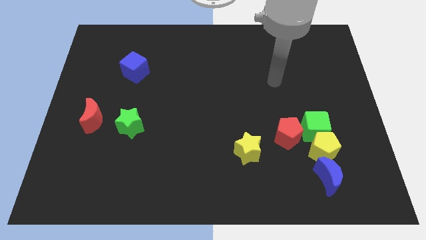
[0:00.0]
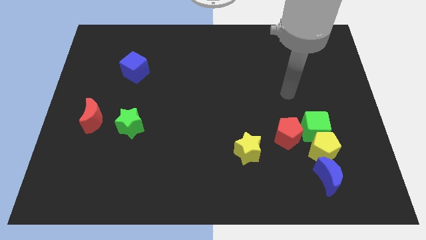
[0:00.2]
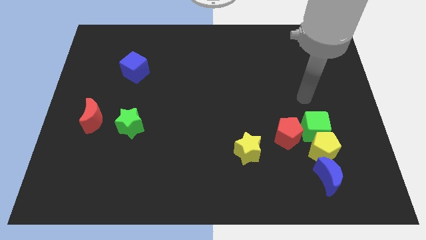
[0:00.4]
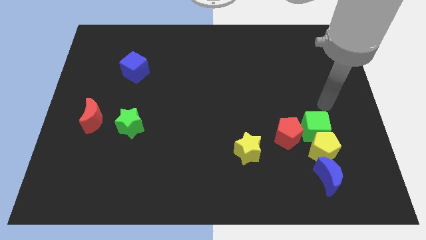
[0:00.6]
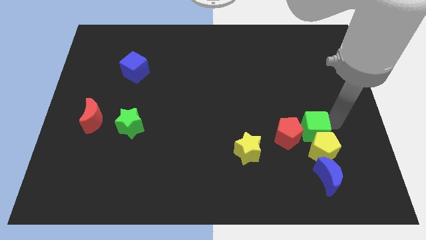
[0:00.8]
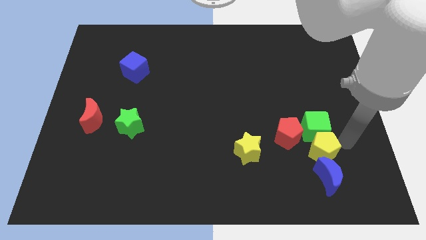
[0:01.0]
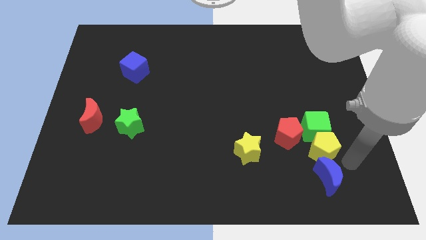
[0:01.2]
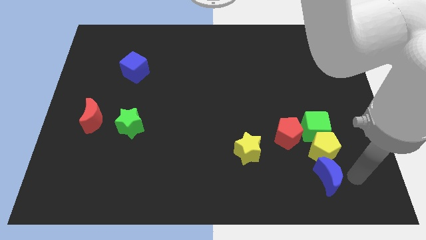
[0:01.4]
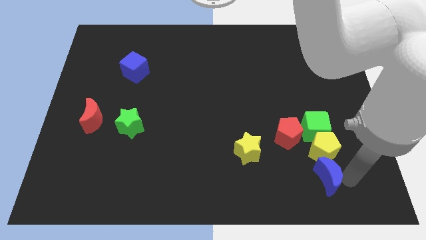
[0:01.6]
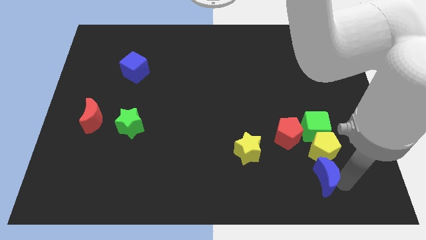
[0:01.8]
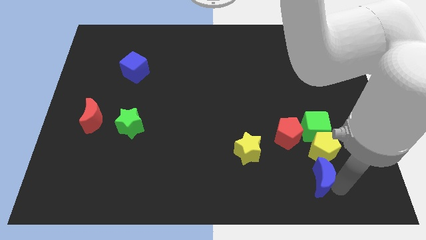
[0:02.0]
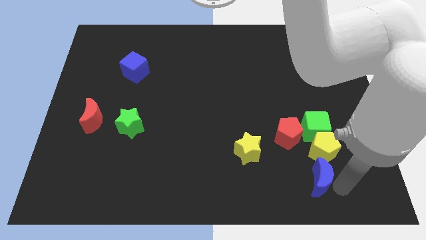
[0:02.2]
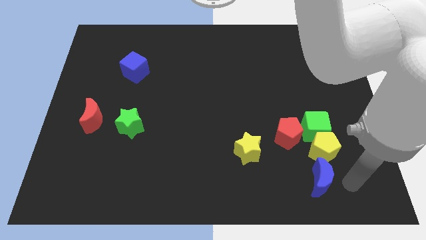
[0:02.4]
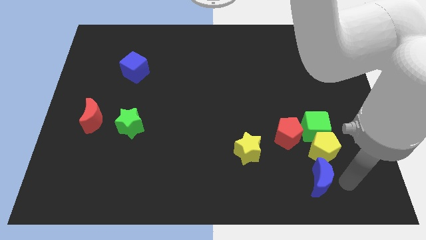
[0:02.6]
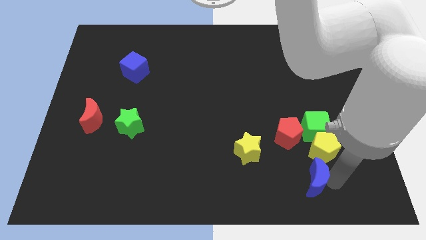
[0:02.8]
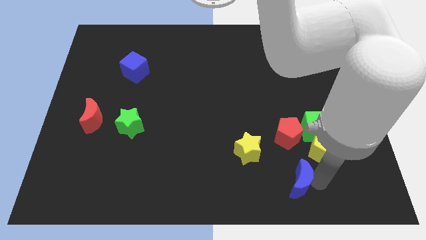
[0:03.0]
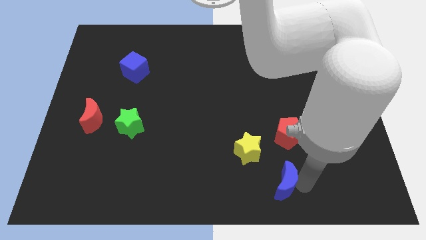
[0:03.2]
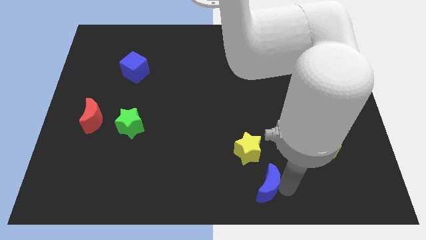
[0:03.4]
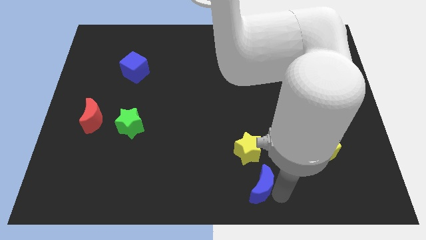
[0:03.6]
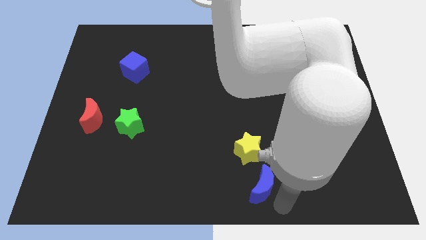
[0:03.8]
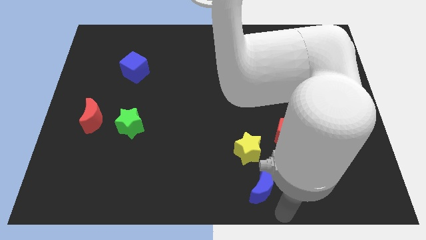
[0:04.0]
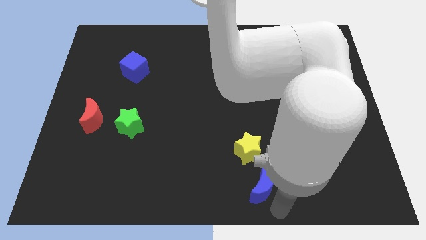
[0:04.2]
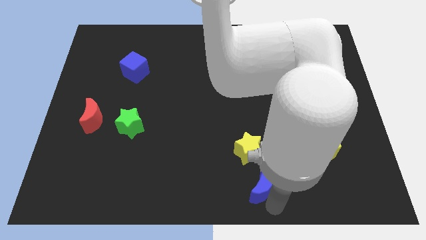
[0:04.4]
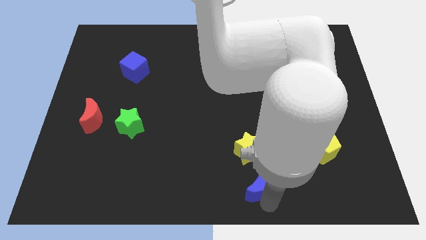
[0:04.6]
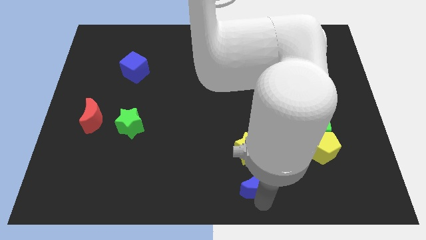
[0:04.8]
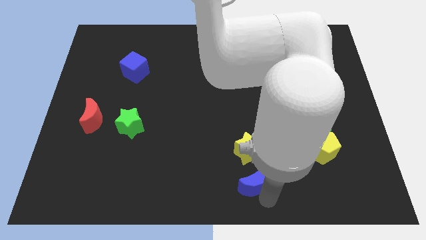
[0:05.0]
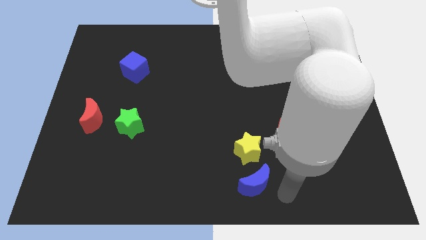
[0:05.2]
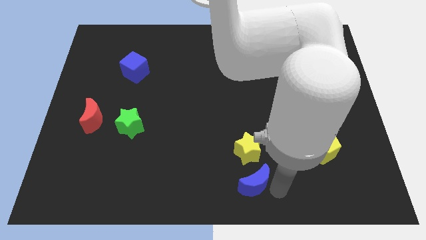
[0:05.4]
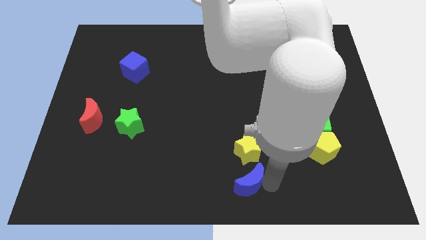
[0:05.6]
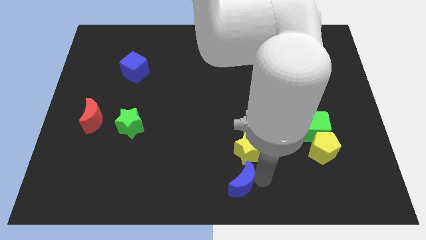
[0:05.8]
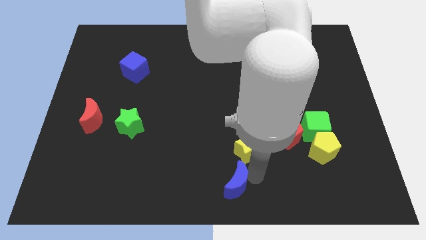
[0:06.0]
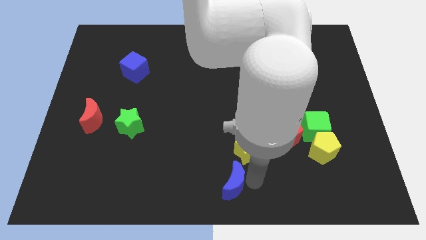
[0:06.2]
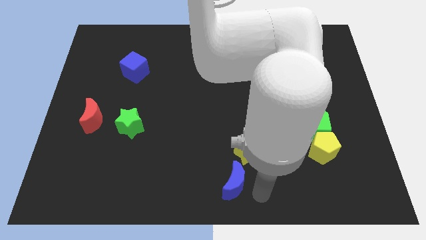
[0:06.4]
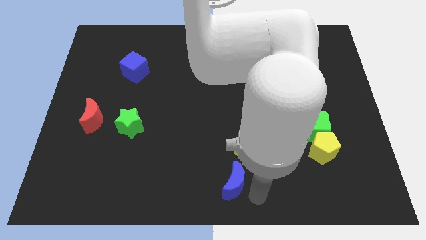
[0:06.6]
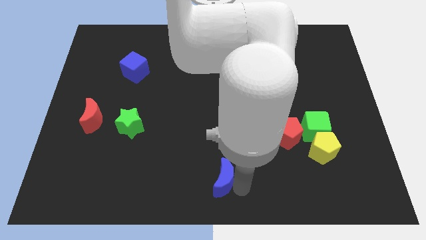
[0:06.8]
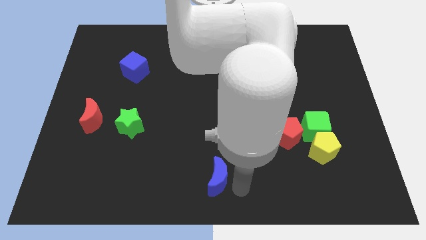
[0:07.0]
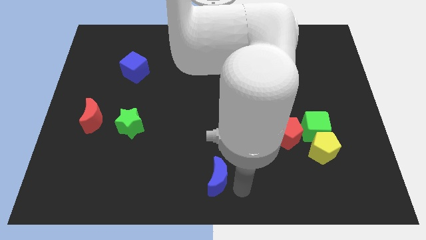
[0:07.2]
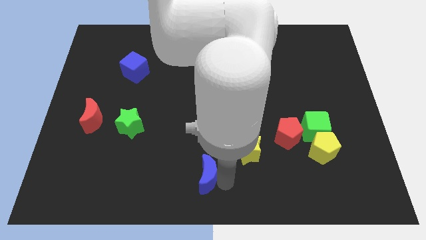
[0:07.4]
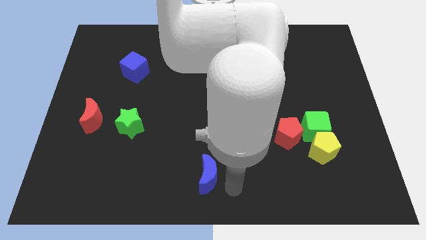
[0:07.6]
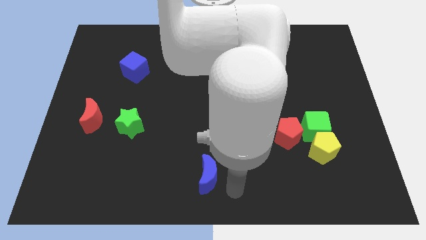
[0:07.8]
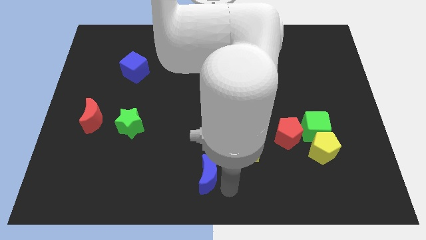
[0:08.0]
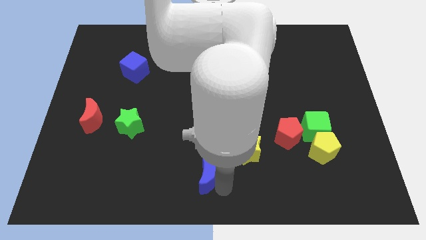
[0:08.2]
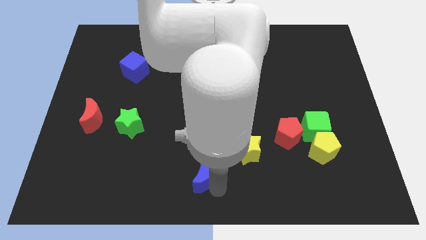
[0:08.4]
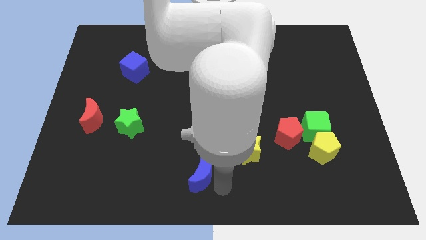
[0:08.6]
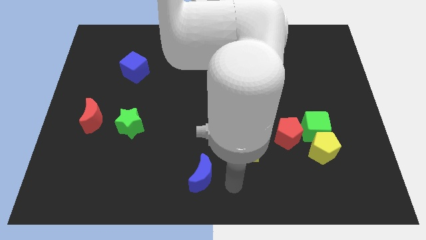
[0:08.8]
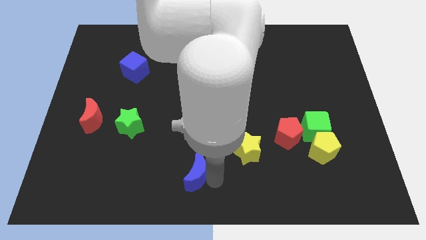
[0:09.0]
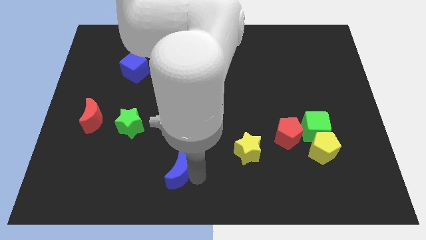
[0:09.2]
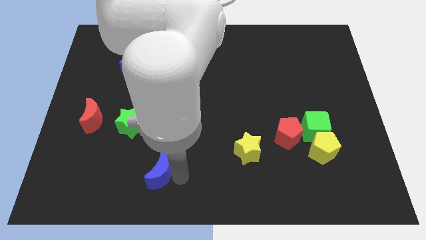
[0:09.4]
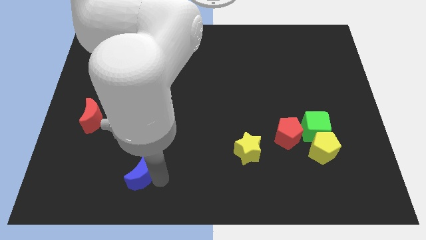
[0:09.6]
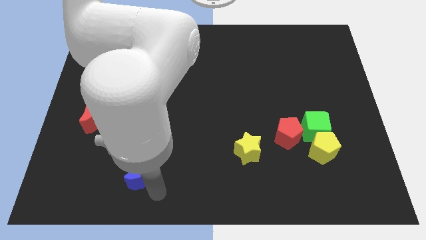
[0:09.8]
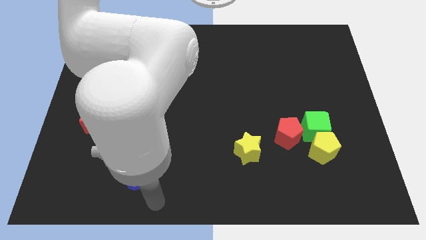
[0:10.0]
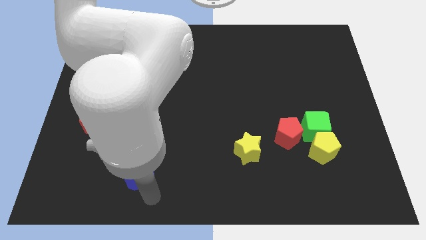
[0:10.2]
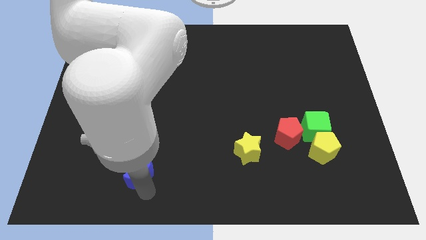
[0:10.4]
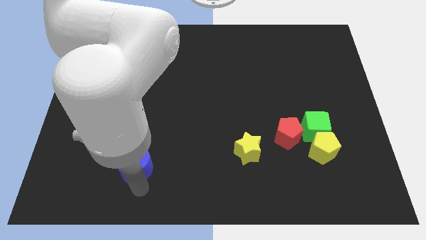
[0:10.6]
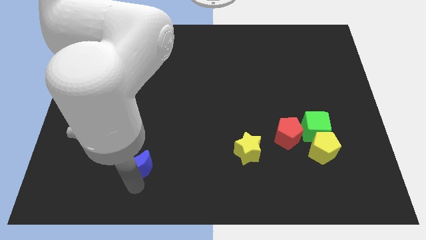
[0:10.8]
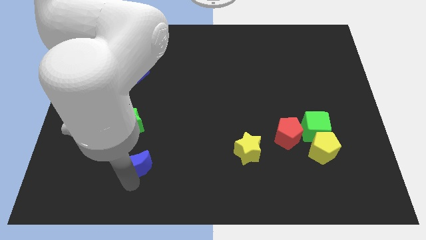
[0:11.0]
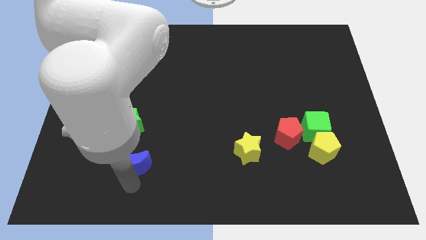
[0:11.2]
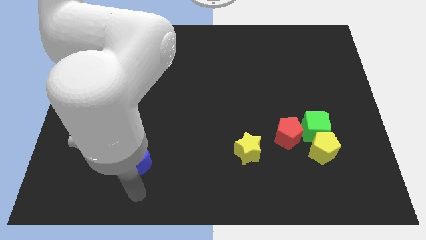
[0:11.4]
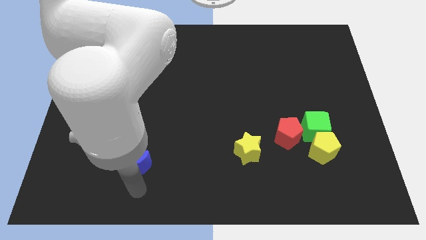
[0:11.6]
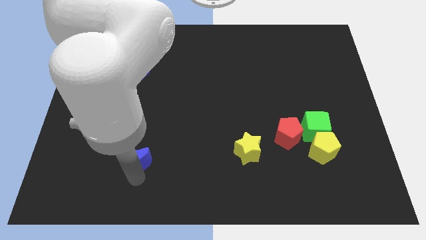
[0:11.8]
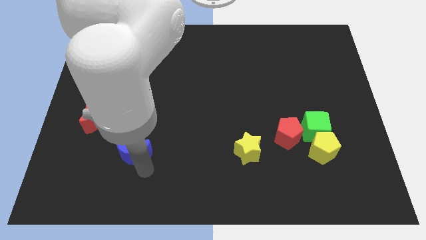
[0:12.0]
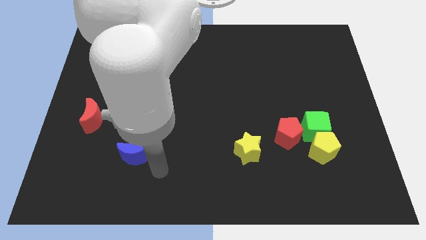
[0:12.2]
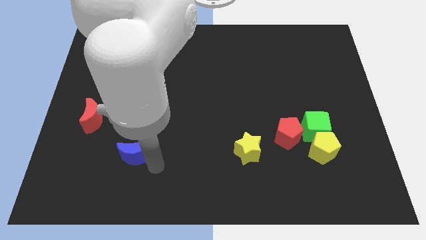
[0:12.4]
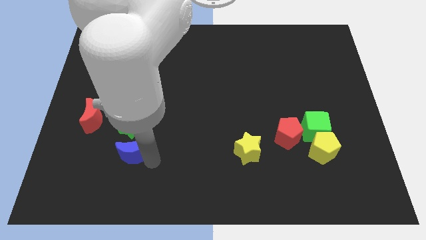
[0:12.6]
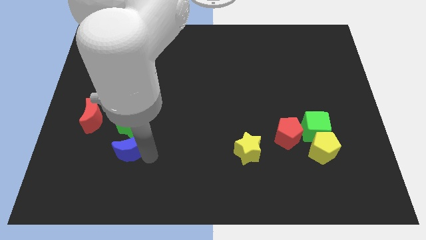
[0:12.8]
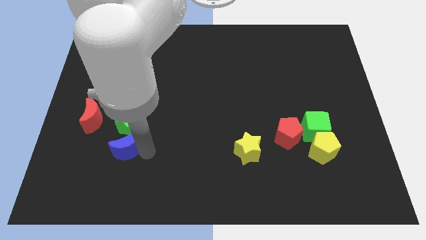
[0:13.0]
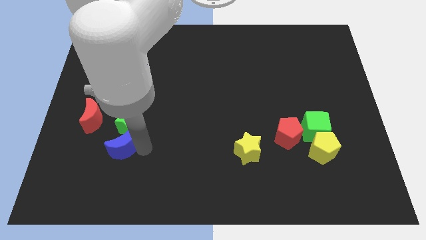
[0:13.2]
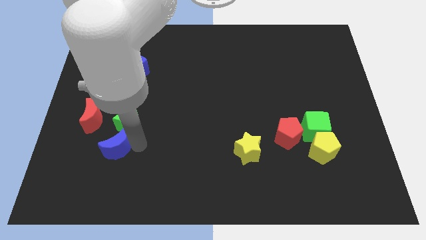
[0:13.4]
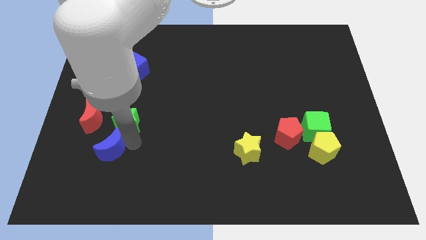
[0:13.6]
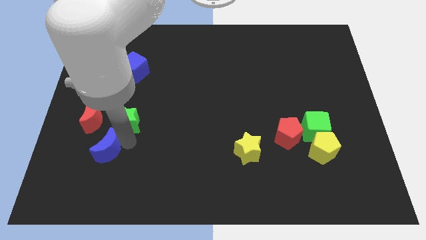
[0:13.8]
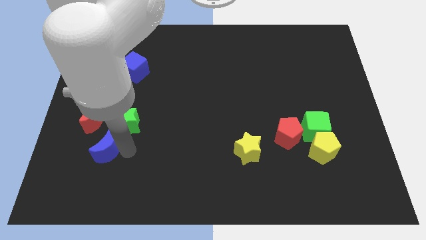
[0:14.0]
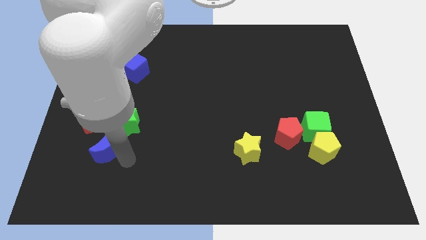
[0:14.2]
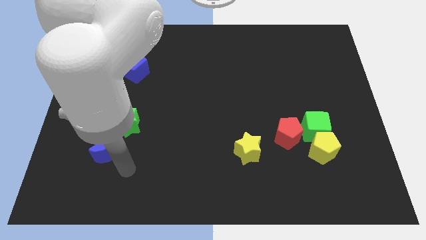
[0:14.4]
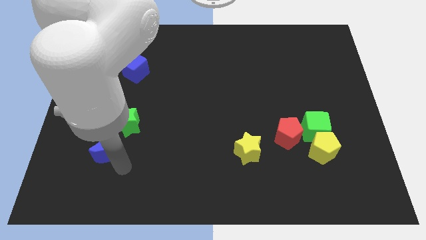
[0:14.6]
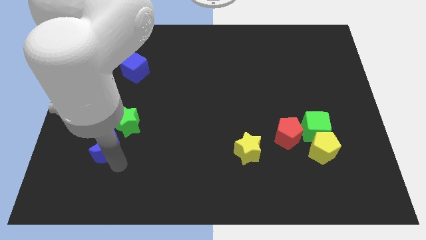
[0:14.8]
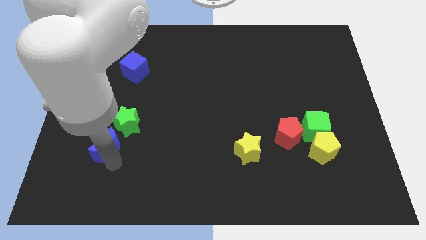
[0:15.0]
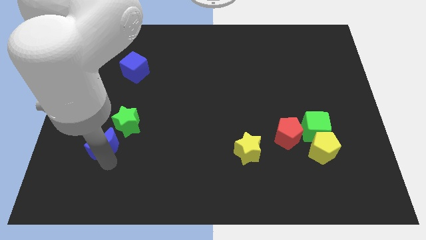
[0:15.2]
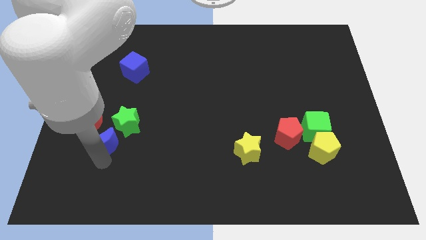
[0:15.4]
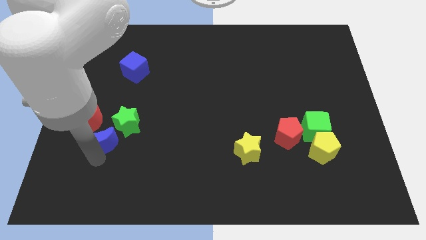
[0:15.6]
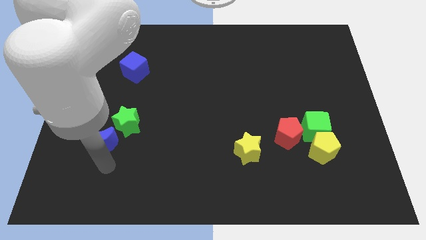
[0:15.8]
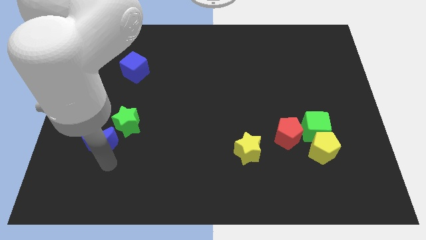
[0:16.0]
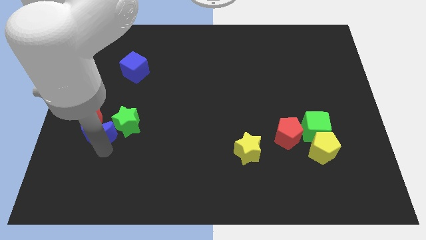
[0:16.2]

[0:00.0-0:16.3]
push the blue moon towards the red moon
